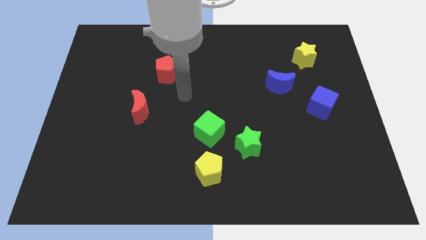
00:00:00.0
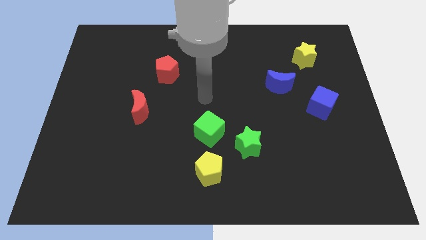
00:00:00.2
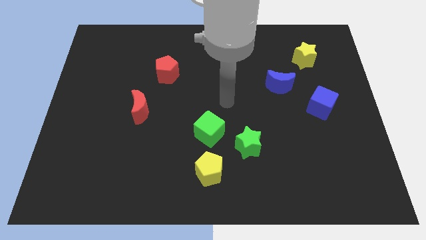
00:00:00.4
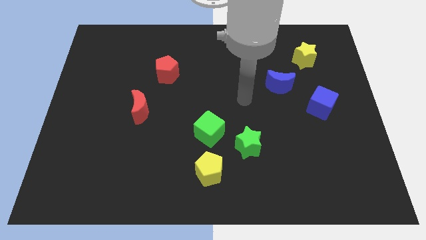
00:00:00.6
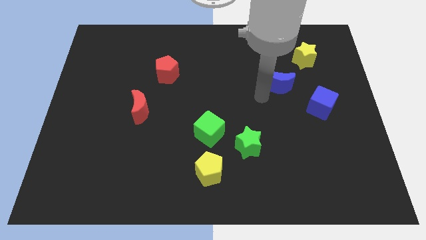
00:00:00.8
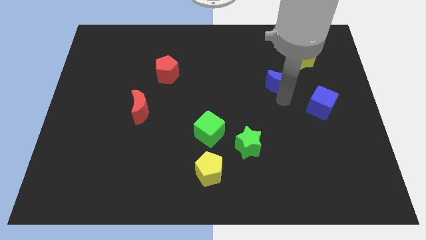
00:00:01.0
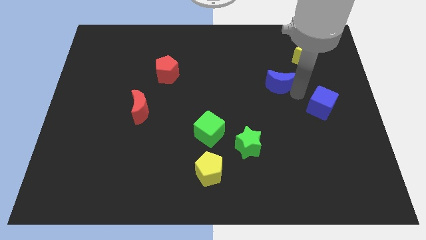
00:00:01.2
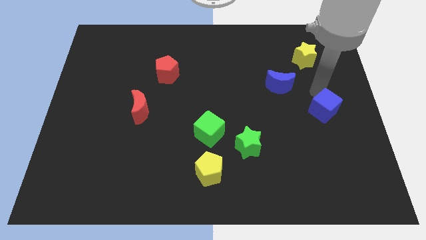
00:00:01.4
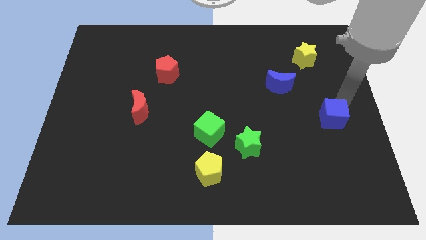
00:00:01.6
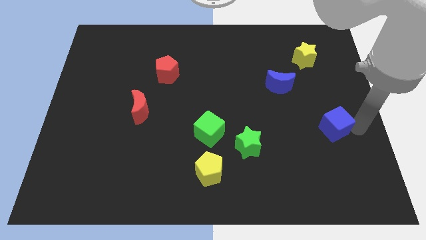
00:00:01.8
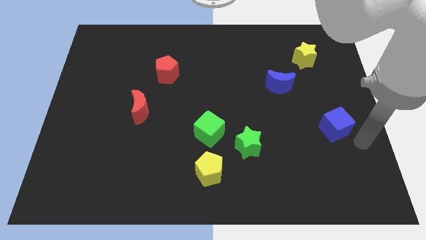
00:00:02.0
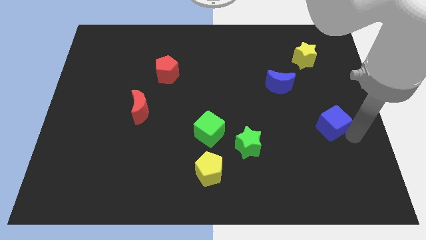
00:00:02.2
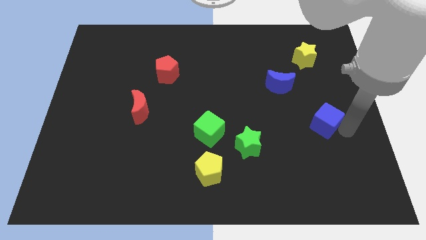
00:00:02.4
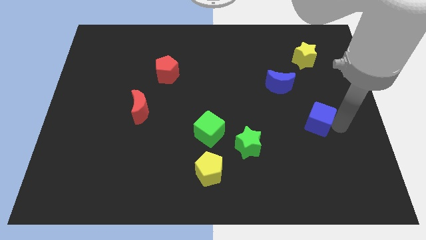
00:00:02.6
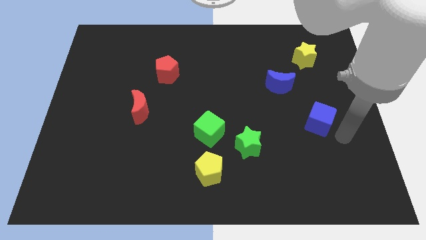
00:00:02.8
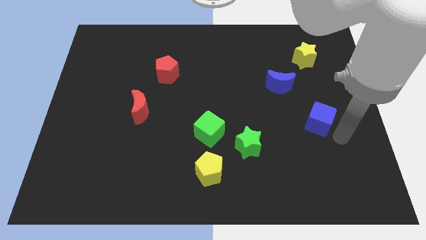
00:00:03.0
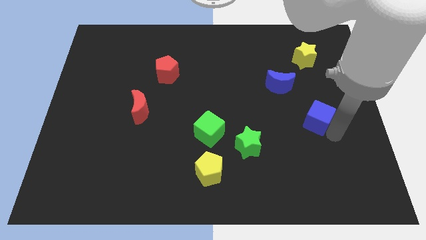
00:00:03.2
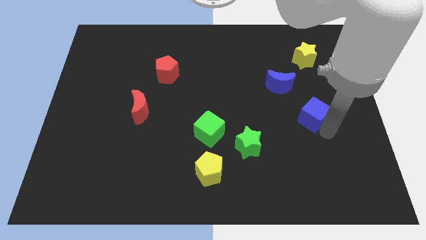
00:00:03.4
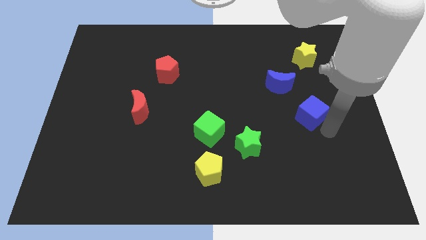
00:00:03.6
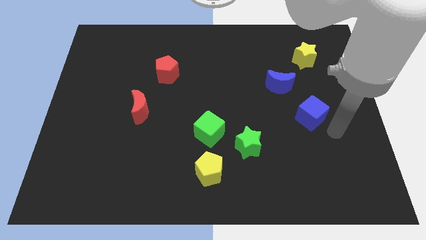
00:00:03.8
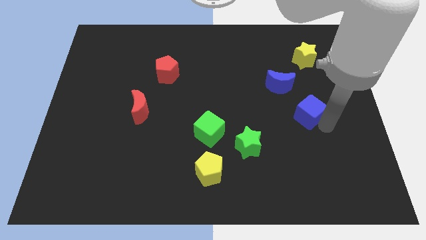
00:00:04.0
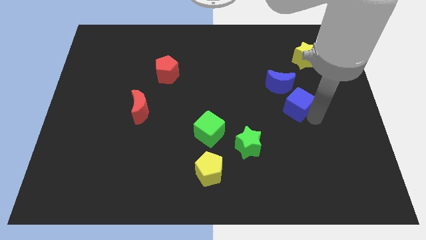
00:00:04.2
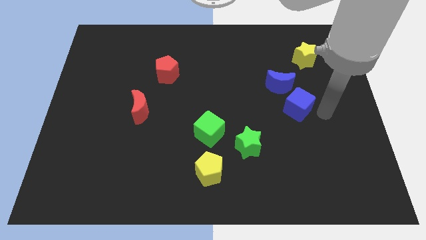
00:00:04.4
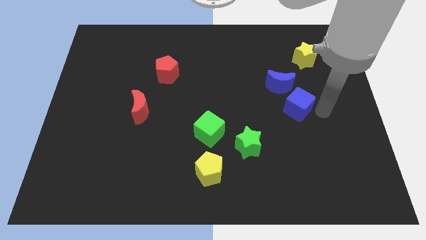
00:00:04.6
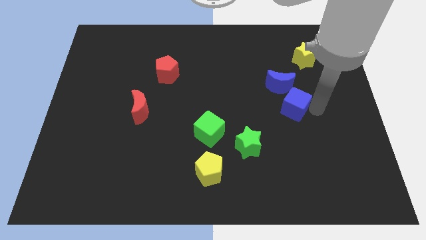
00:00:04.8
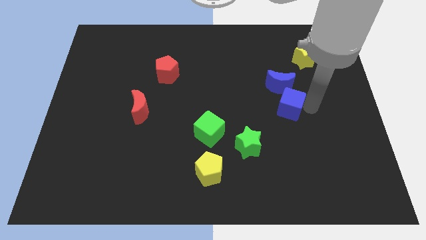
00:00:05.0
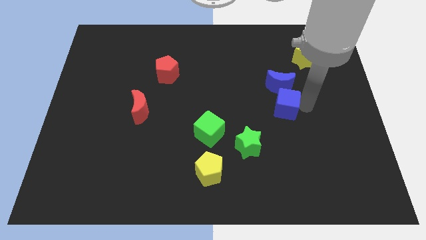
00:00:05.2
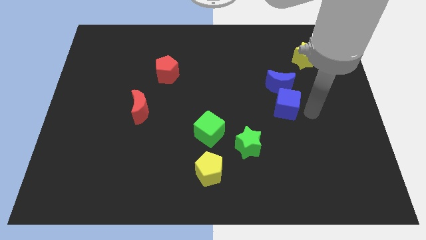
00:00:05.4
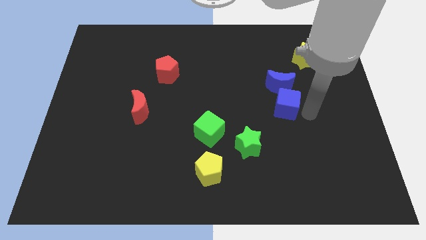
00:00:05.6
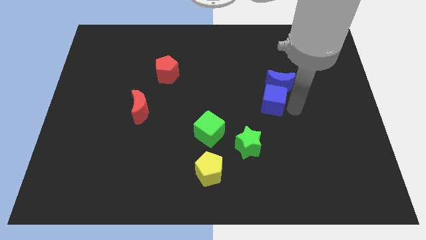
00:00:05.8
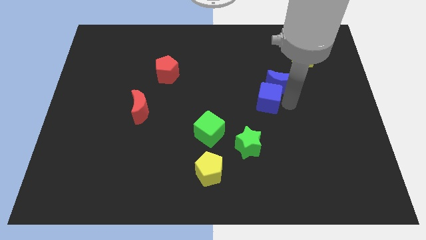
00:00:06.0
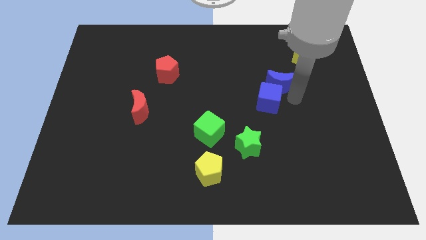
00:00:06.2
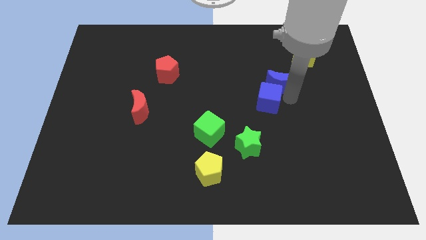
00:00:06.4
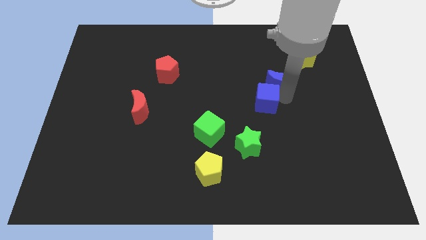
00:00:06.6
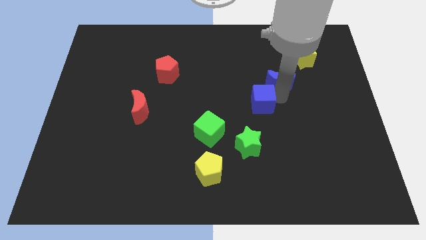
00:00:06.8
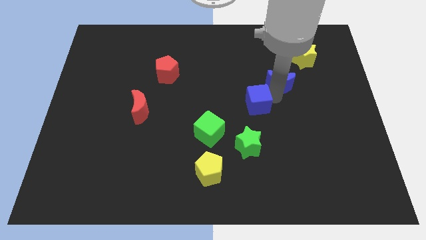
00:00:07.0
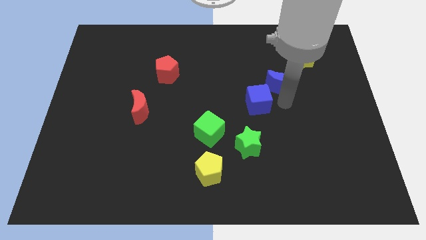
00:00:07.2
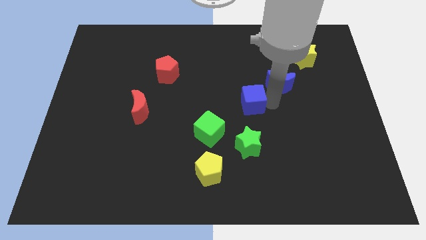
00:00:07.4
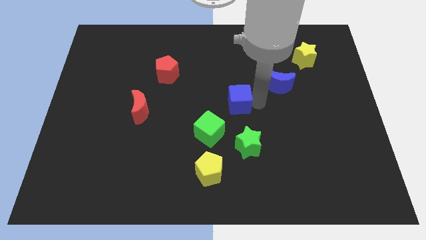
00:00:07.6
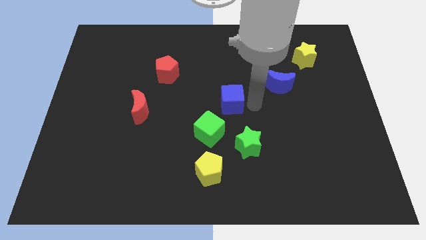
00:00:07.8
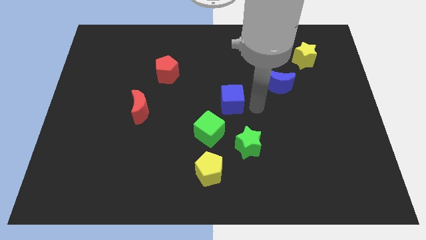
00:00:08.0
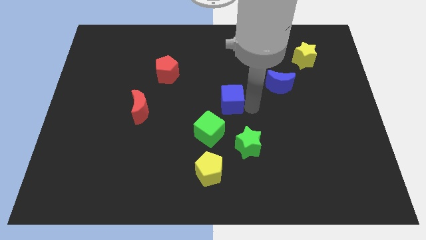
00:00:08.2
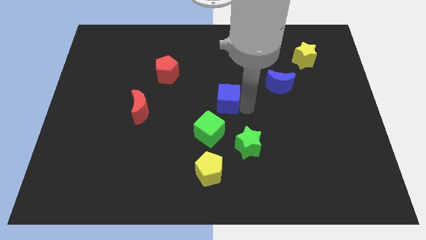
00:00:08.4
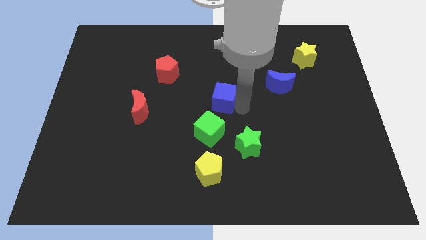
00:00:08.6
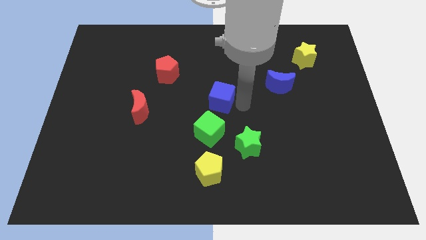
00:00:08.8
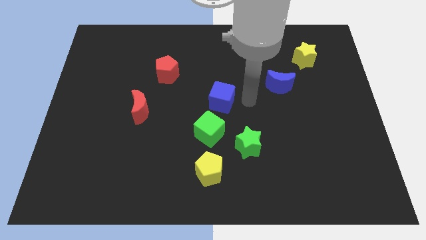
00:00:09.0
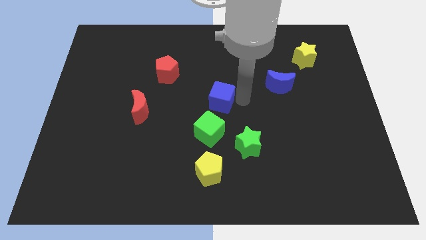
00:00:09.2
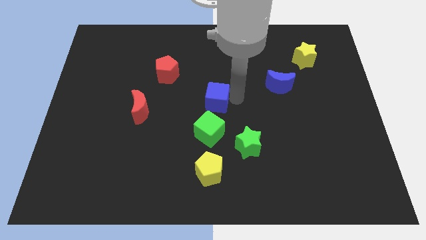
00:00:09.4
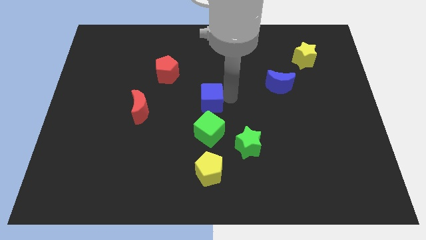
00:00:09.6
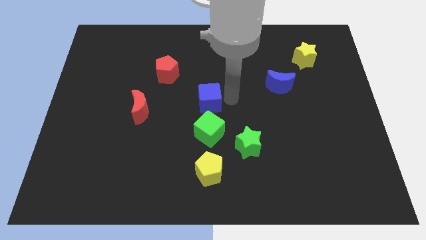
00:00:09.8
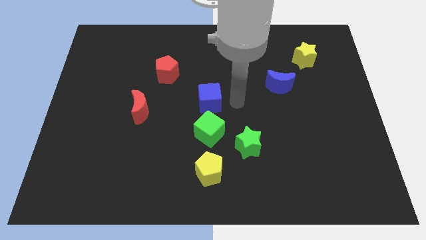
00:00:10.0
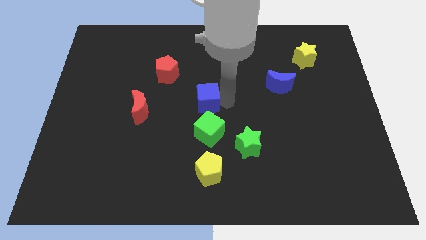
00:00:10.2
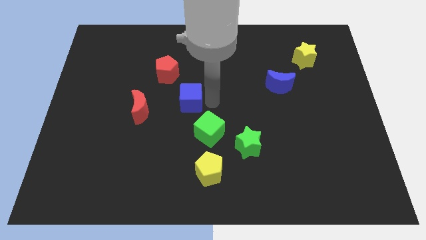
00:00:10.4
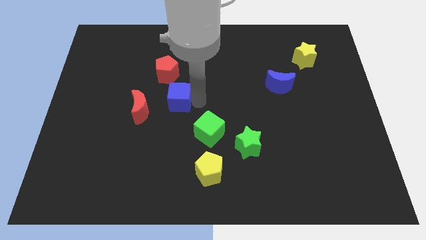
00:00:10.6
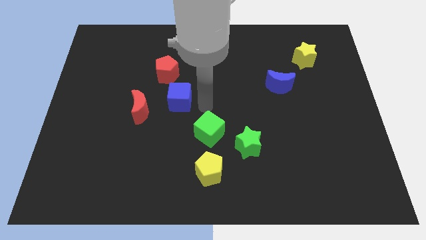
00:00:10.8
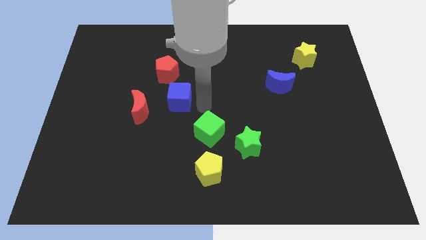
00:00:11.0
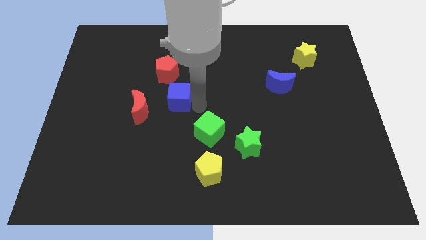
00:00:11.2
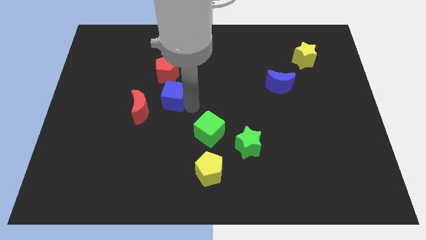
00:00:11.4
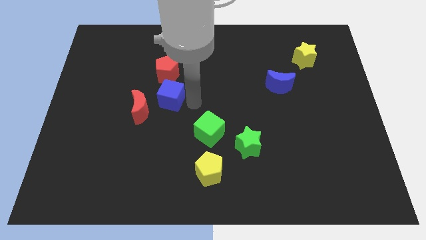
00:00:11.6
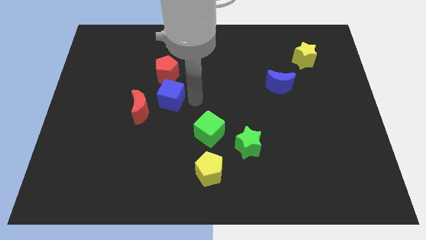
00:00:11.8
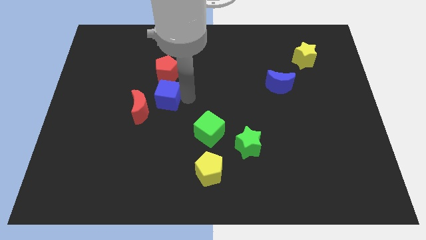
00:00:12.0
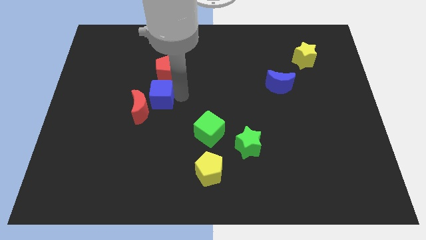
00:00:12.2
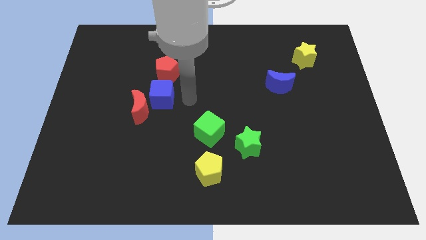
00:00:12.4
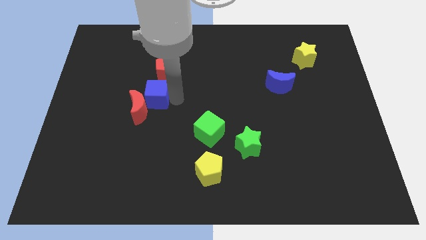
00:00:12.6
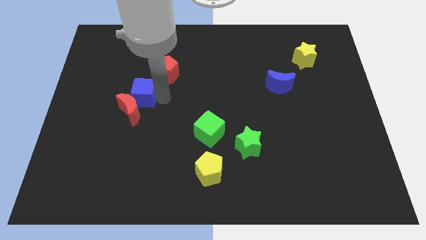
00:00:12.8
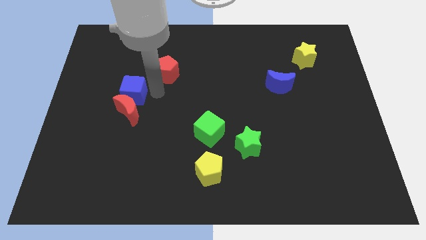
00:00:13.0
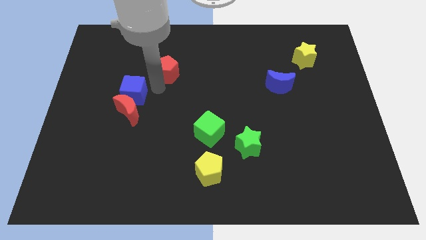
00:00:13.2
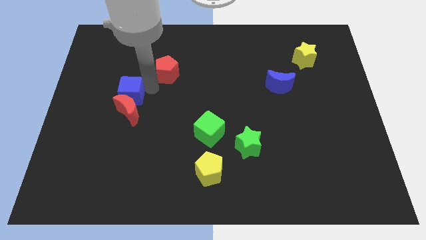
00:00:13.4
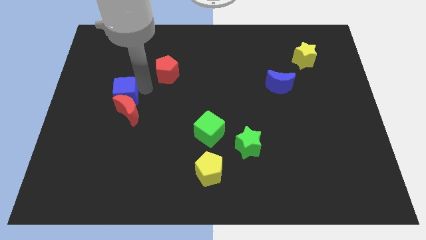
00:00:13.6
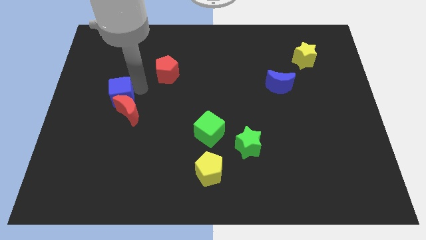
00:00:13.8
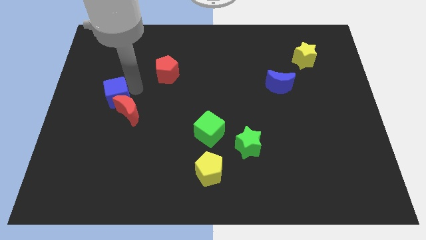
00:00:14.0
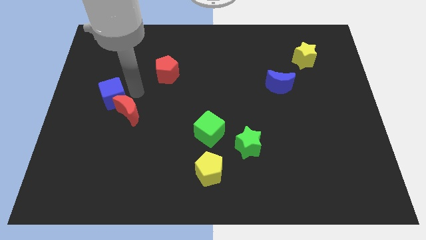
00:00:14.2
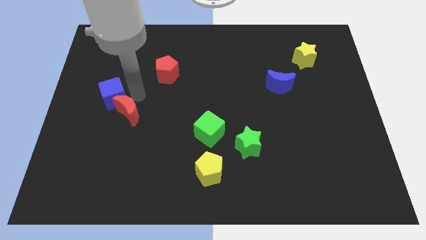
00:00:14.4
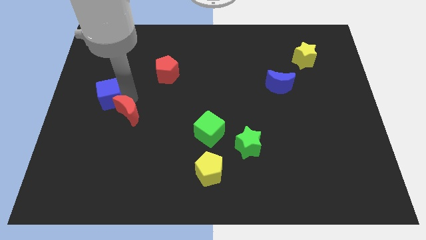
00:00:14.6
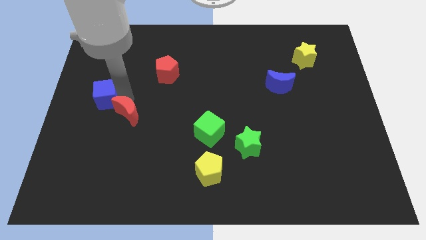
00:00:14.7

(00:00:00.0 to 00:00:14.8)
slide the blue cube to the left side
